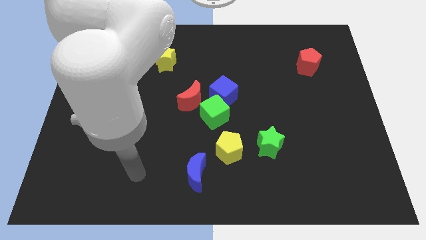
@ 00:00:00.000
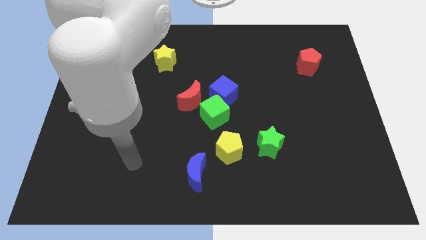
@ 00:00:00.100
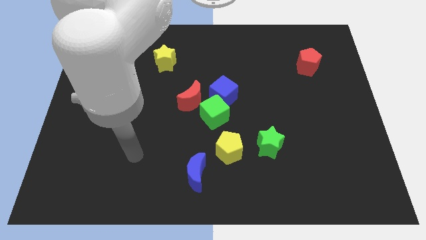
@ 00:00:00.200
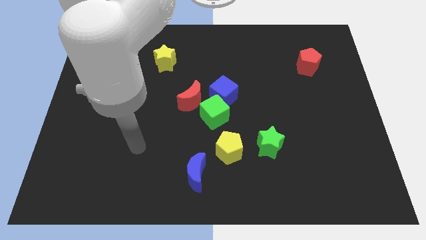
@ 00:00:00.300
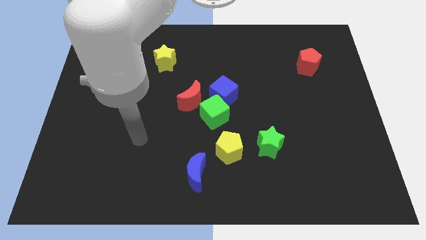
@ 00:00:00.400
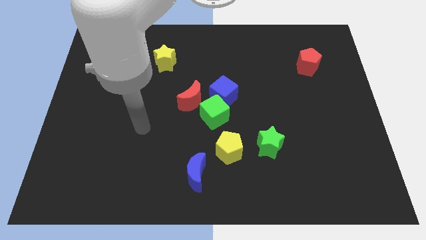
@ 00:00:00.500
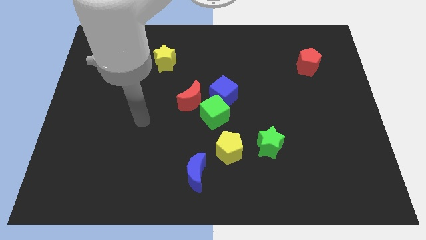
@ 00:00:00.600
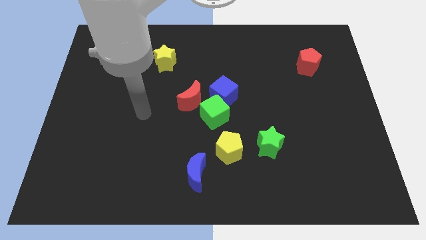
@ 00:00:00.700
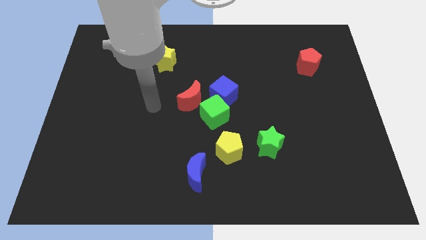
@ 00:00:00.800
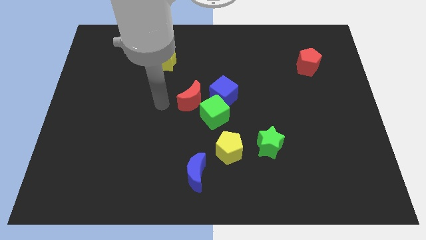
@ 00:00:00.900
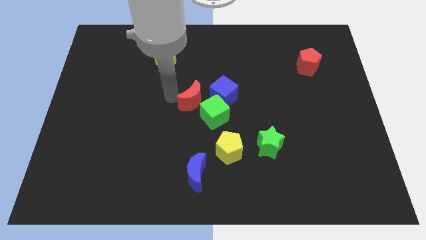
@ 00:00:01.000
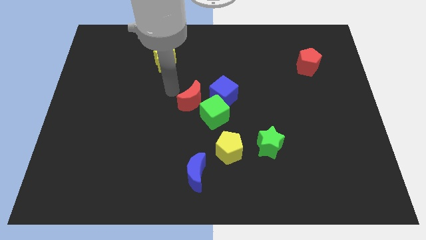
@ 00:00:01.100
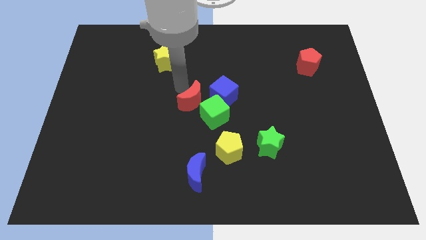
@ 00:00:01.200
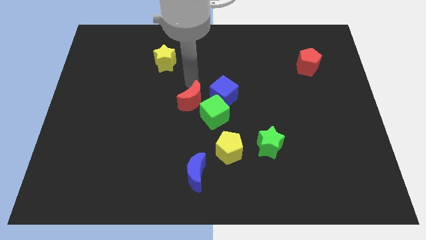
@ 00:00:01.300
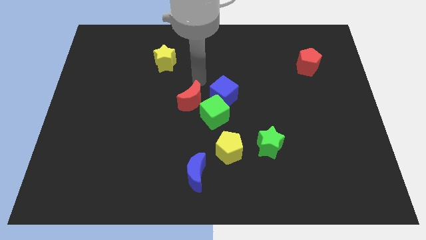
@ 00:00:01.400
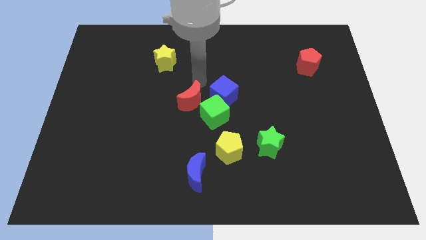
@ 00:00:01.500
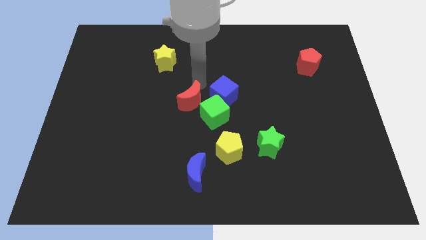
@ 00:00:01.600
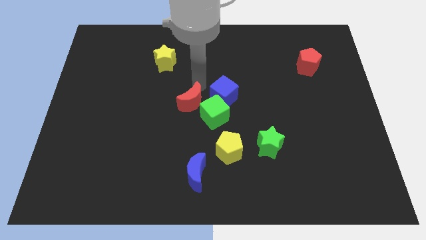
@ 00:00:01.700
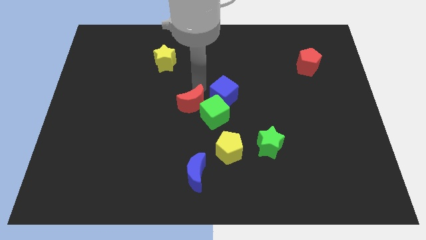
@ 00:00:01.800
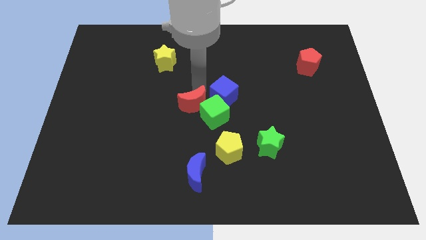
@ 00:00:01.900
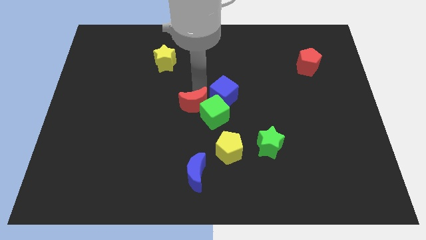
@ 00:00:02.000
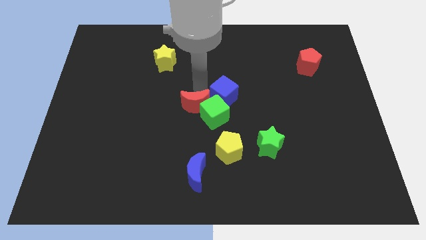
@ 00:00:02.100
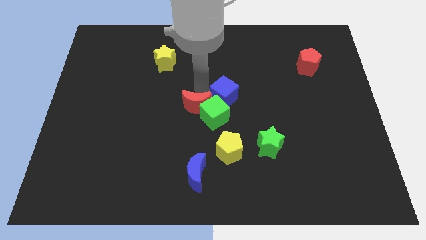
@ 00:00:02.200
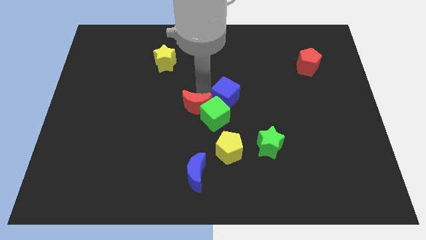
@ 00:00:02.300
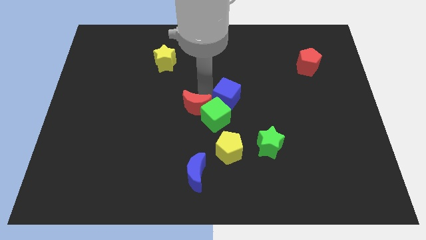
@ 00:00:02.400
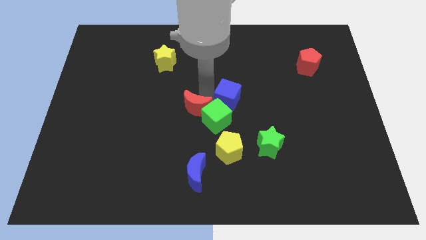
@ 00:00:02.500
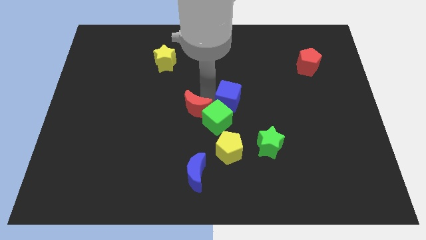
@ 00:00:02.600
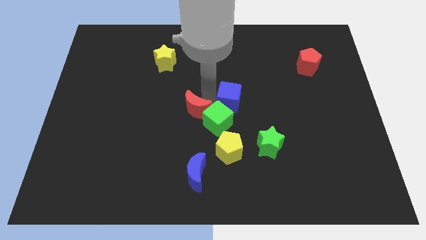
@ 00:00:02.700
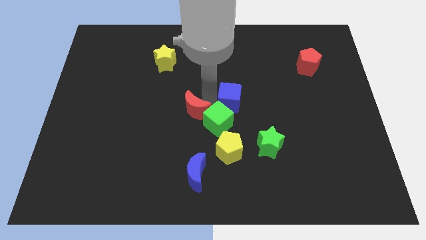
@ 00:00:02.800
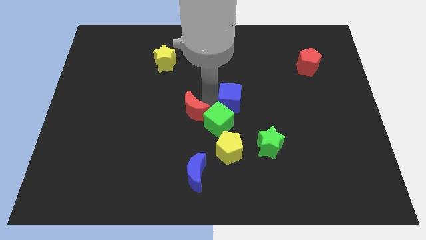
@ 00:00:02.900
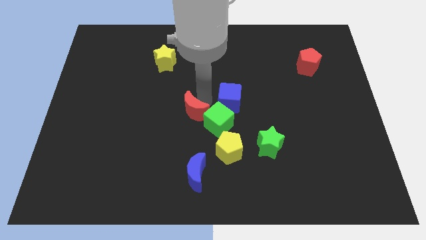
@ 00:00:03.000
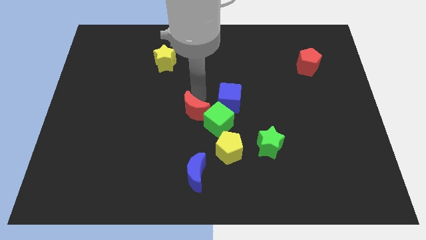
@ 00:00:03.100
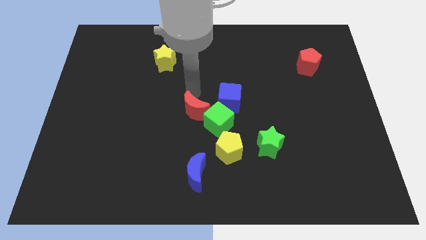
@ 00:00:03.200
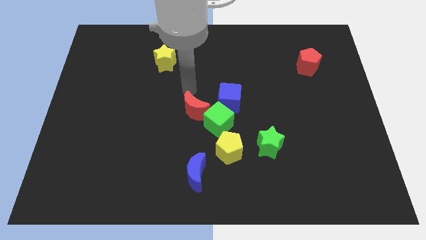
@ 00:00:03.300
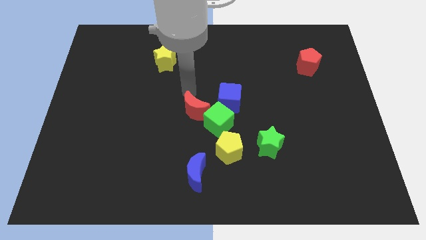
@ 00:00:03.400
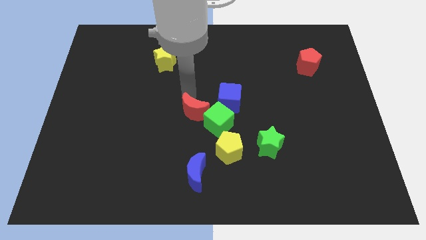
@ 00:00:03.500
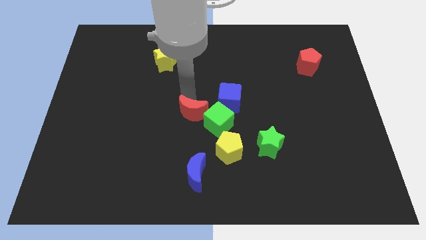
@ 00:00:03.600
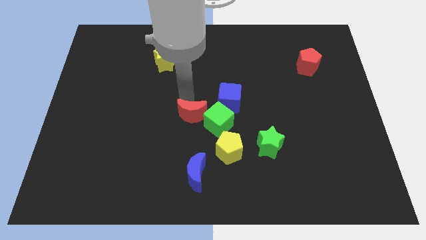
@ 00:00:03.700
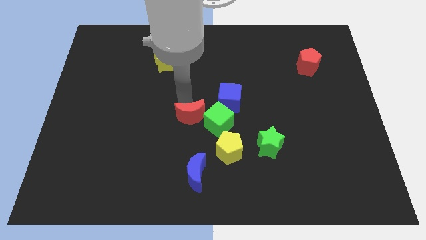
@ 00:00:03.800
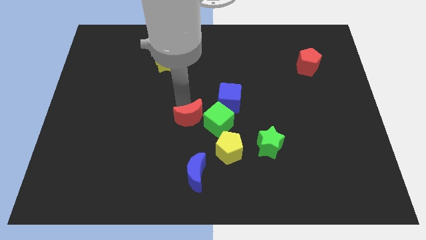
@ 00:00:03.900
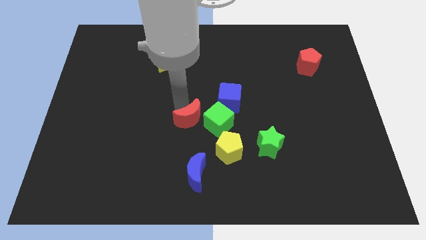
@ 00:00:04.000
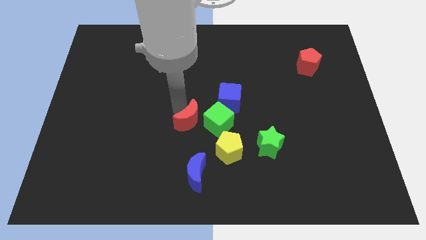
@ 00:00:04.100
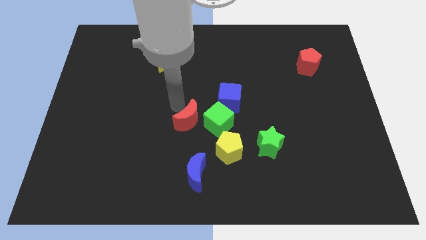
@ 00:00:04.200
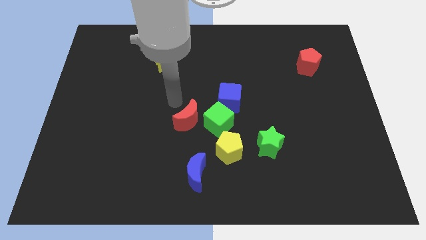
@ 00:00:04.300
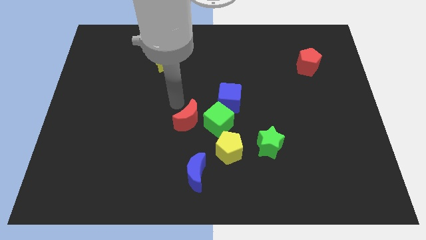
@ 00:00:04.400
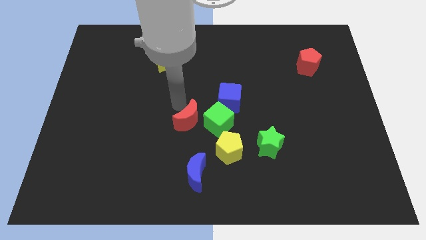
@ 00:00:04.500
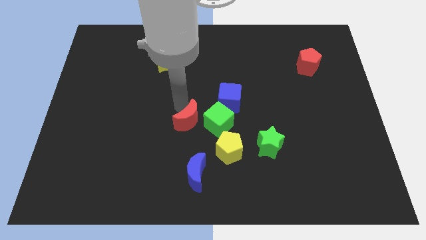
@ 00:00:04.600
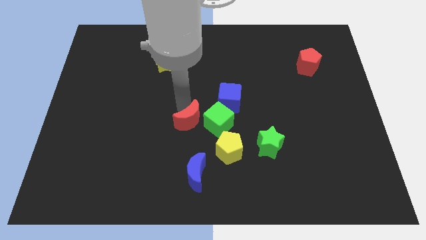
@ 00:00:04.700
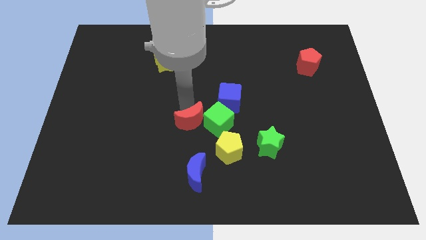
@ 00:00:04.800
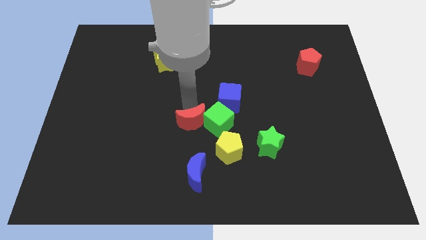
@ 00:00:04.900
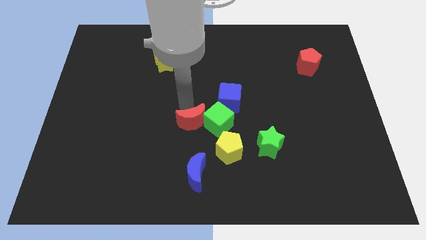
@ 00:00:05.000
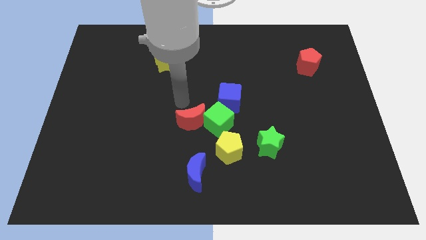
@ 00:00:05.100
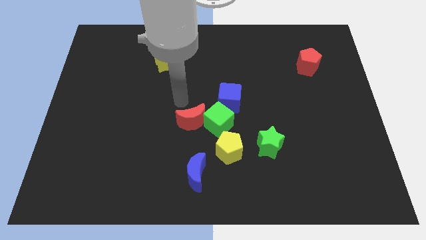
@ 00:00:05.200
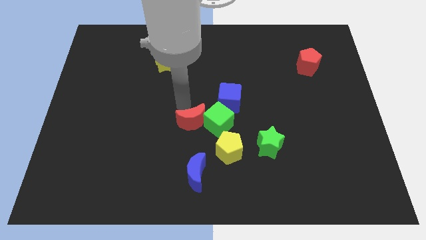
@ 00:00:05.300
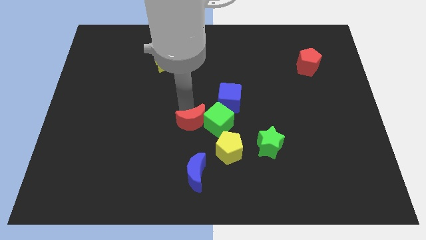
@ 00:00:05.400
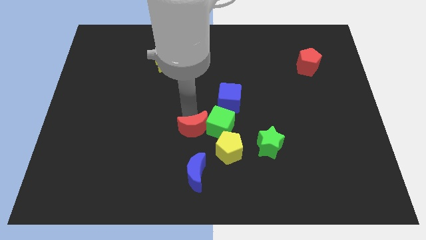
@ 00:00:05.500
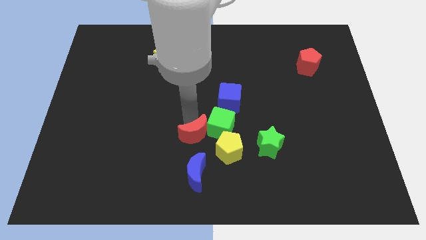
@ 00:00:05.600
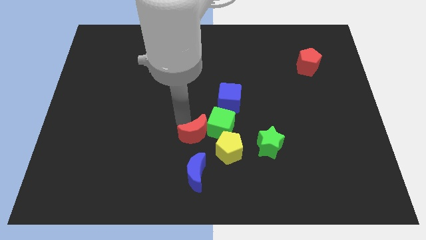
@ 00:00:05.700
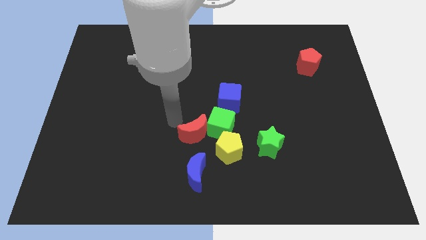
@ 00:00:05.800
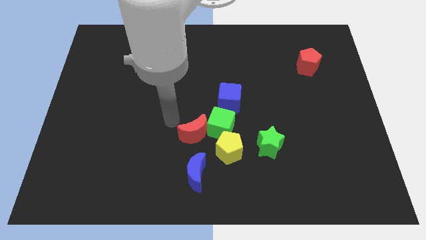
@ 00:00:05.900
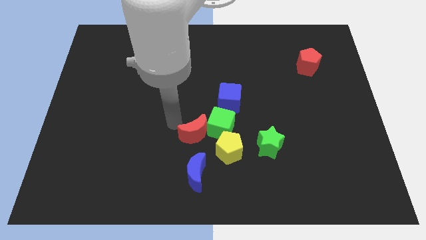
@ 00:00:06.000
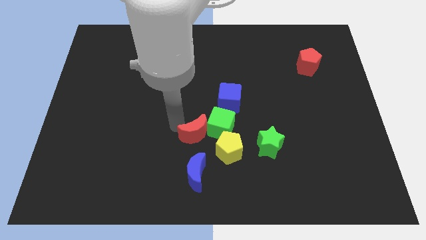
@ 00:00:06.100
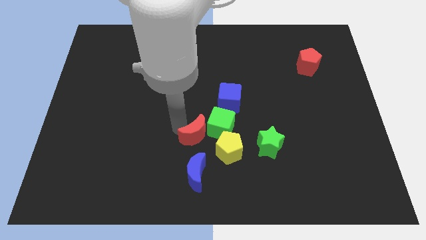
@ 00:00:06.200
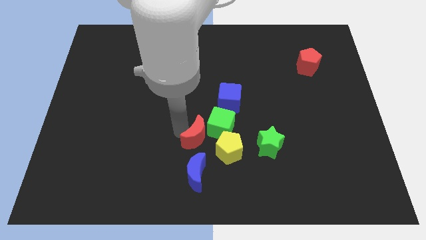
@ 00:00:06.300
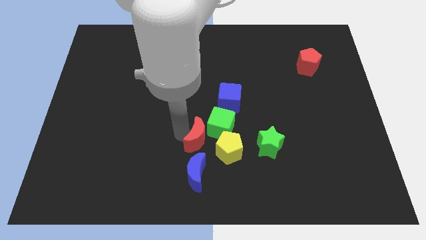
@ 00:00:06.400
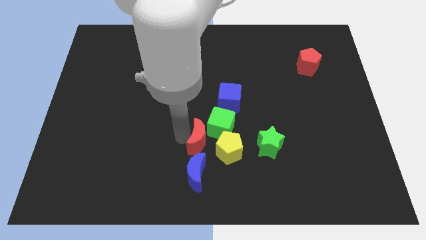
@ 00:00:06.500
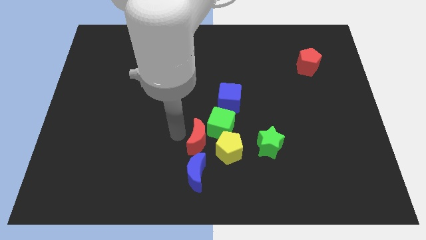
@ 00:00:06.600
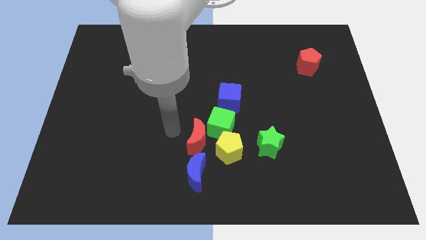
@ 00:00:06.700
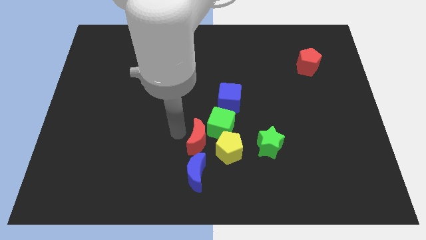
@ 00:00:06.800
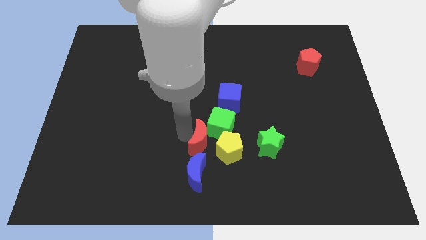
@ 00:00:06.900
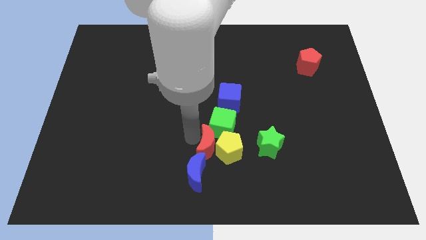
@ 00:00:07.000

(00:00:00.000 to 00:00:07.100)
put the red moon close to the yellow pentagon
